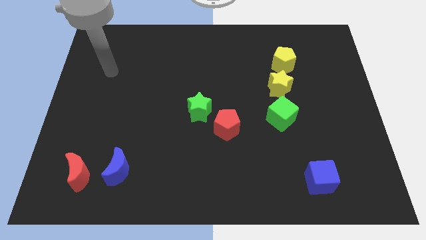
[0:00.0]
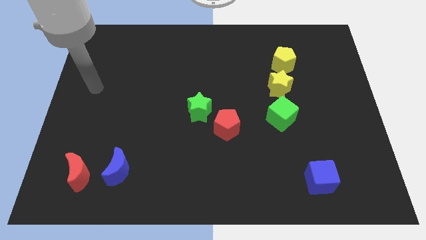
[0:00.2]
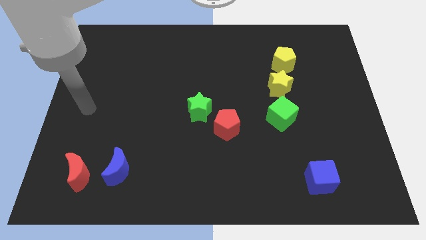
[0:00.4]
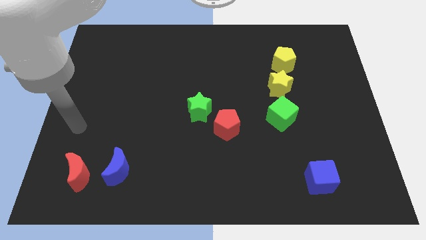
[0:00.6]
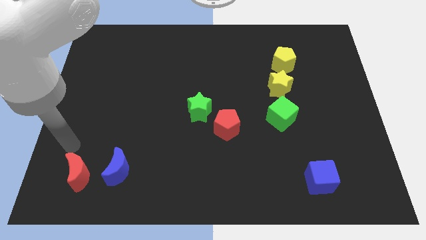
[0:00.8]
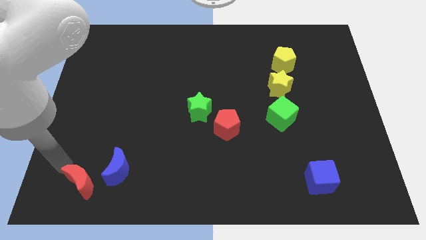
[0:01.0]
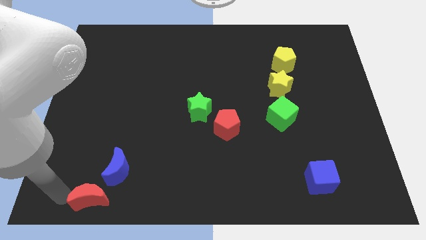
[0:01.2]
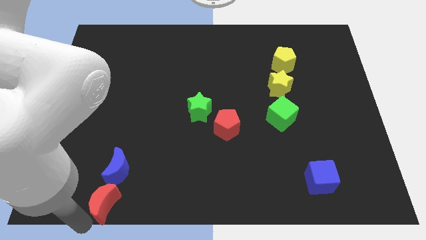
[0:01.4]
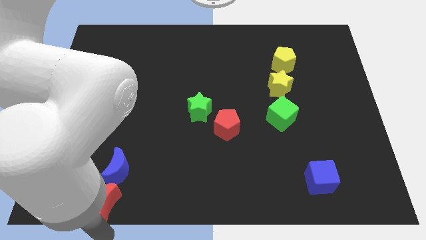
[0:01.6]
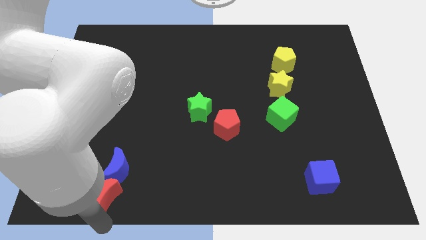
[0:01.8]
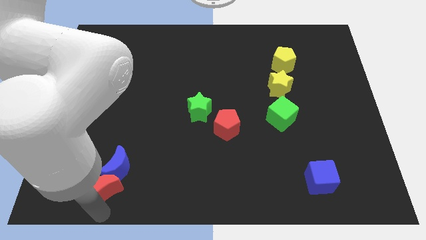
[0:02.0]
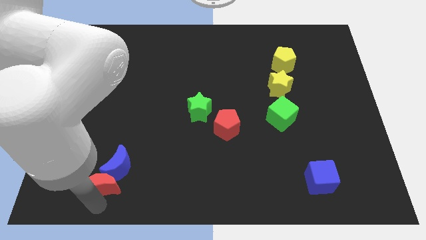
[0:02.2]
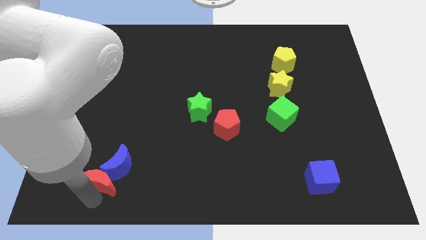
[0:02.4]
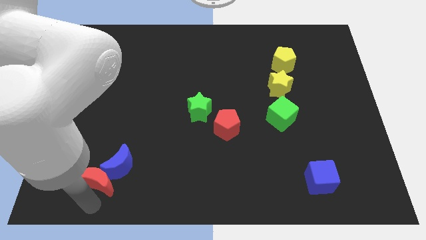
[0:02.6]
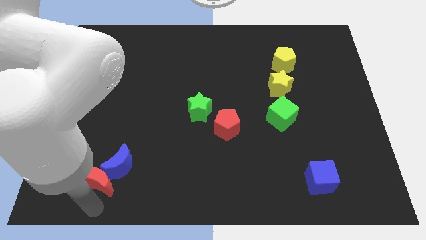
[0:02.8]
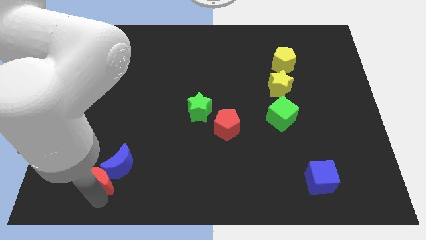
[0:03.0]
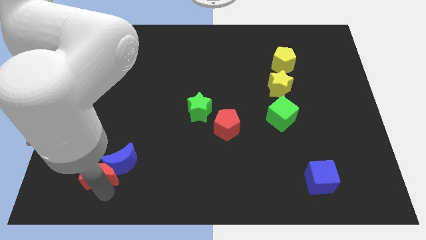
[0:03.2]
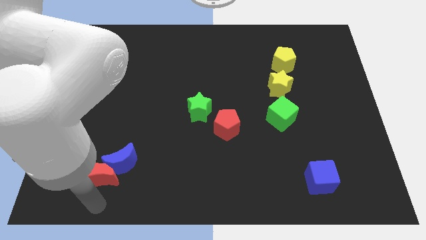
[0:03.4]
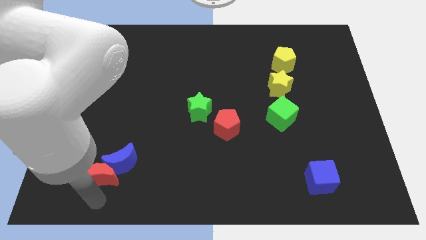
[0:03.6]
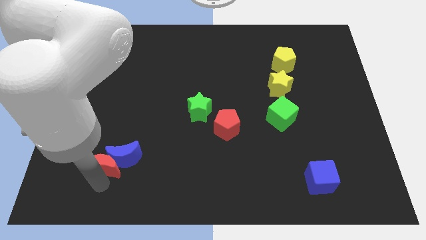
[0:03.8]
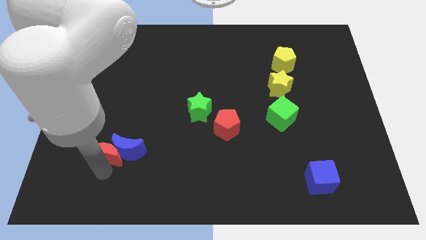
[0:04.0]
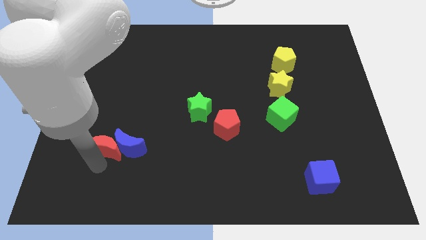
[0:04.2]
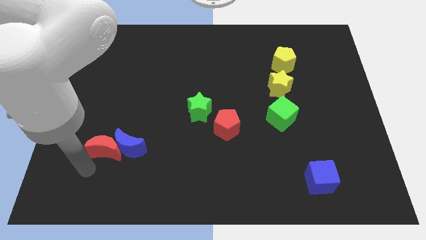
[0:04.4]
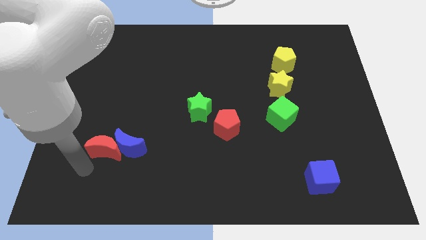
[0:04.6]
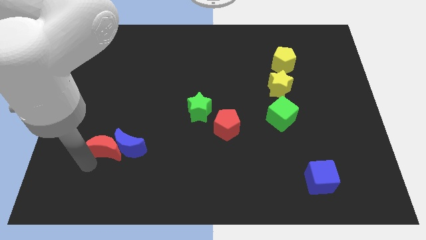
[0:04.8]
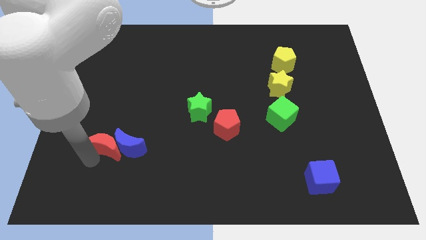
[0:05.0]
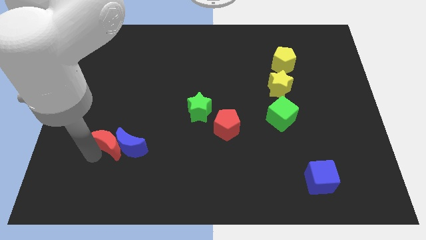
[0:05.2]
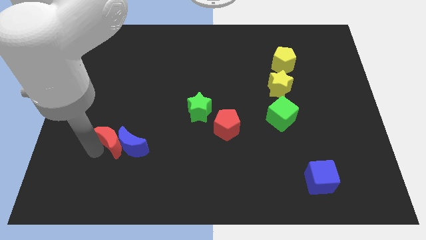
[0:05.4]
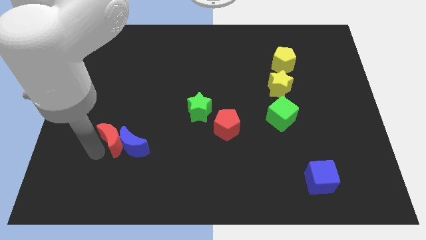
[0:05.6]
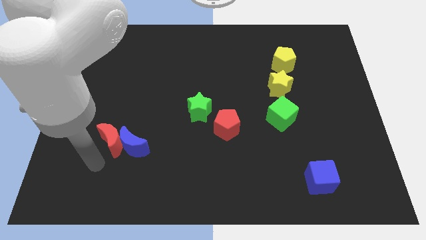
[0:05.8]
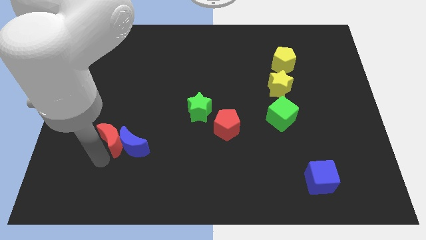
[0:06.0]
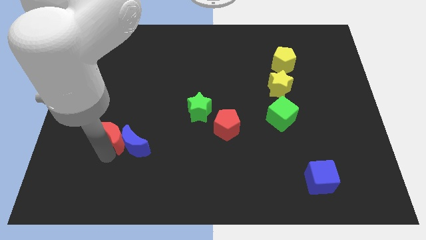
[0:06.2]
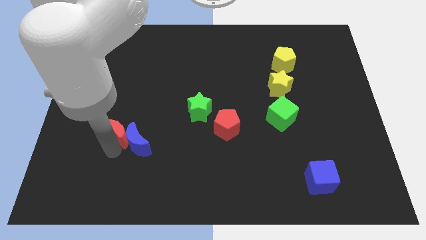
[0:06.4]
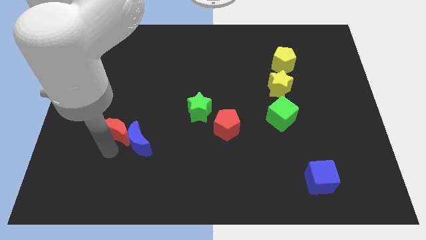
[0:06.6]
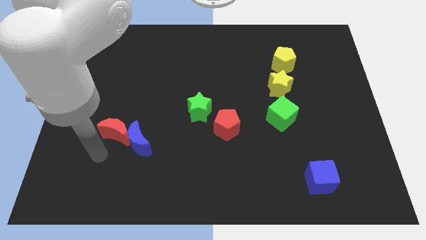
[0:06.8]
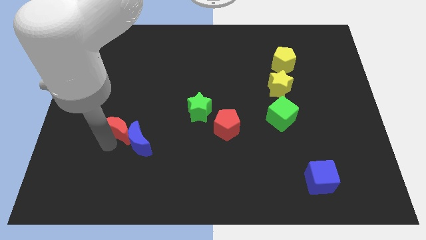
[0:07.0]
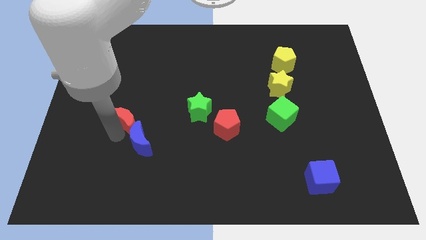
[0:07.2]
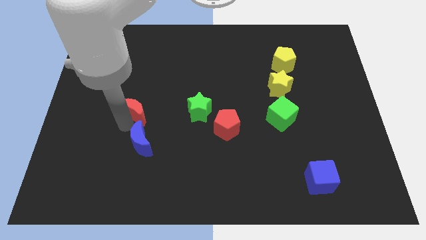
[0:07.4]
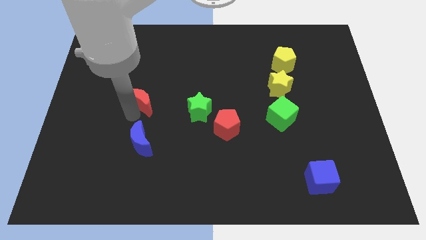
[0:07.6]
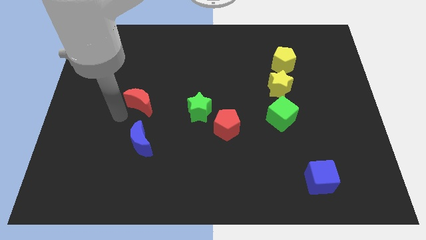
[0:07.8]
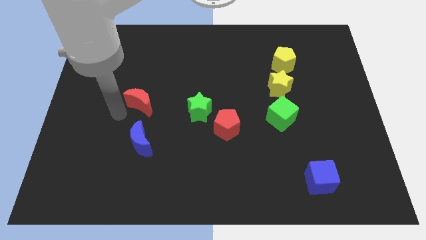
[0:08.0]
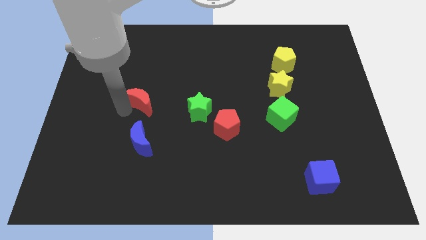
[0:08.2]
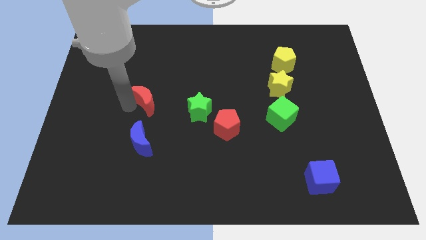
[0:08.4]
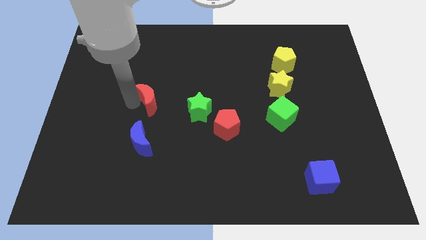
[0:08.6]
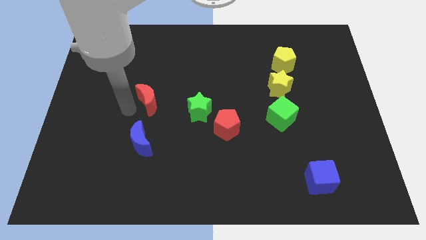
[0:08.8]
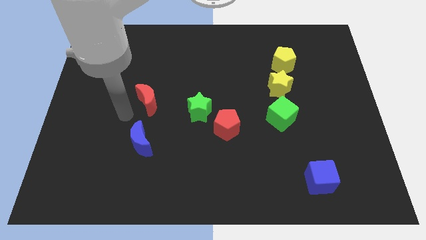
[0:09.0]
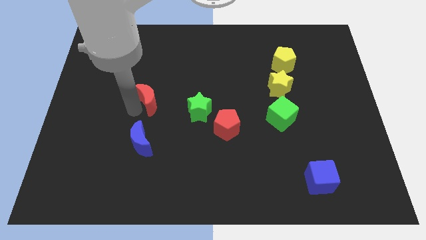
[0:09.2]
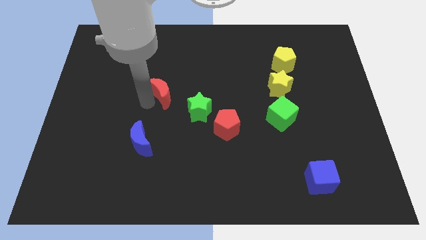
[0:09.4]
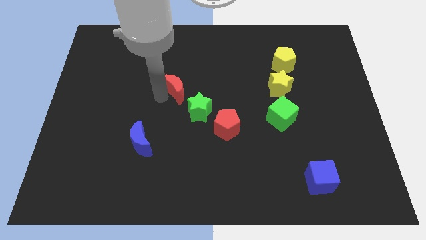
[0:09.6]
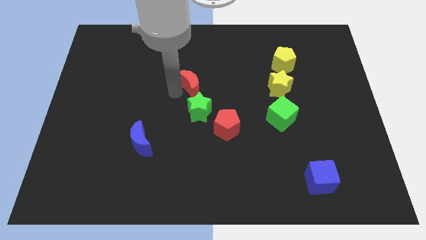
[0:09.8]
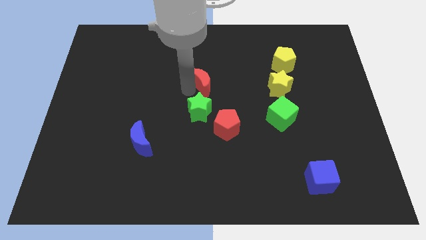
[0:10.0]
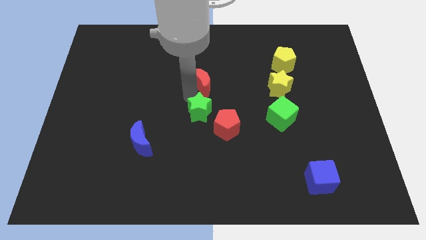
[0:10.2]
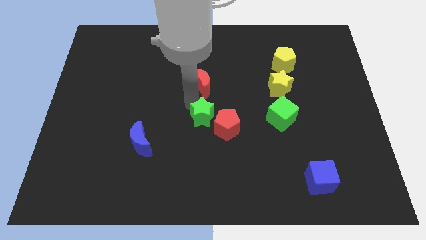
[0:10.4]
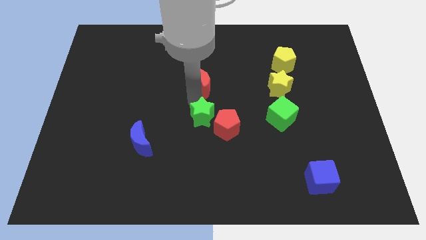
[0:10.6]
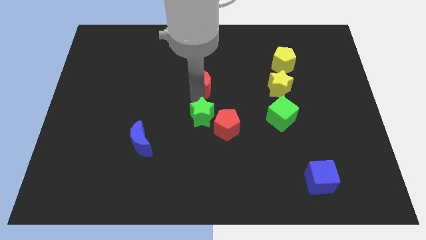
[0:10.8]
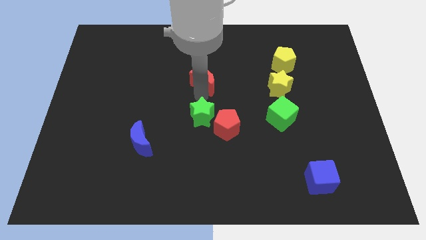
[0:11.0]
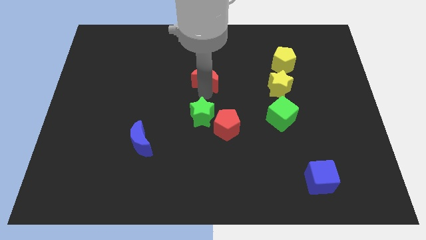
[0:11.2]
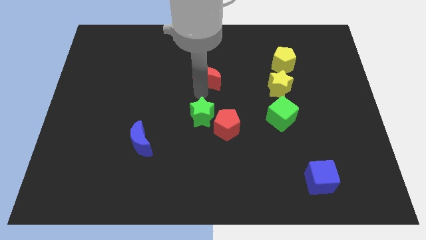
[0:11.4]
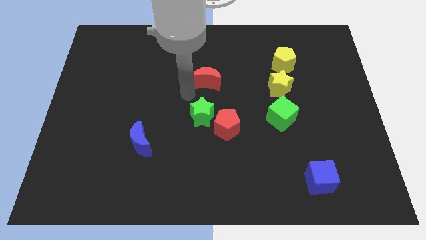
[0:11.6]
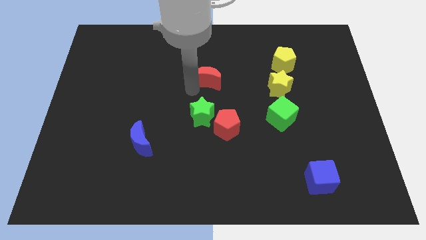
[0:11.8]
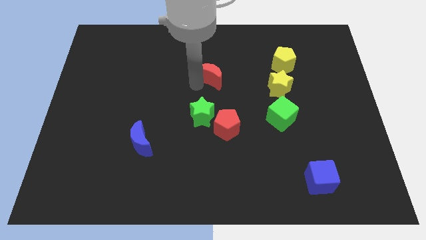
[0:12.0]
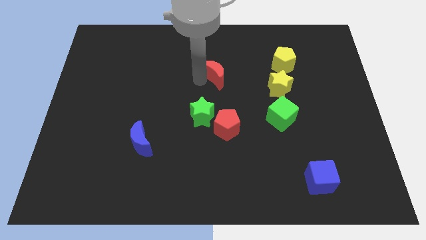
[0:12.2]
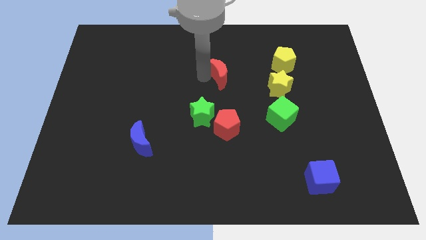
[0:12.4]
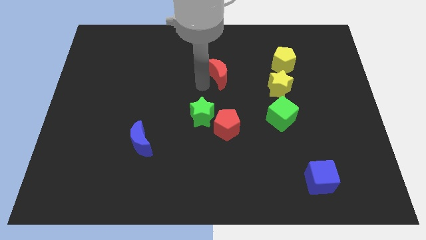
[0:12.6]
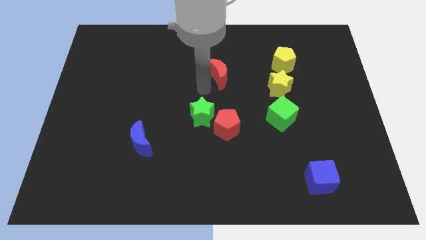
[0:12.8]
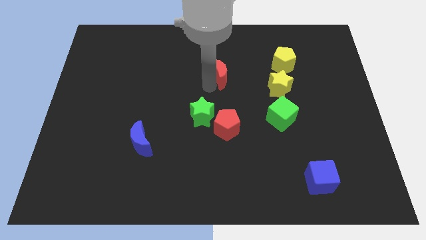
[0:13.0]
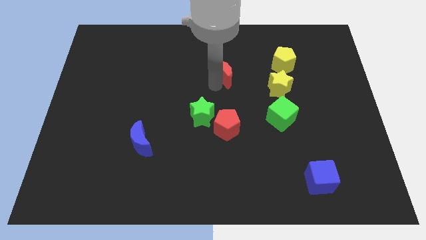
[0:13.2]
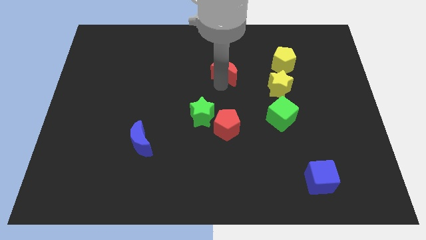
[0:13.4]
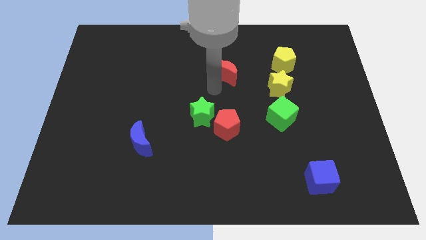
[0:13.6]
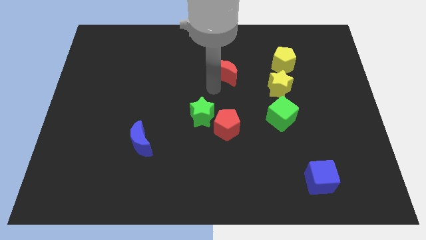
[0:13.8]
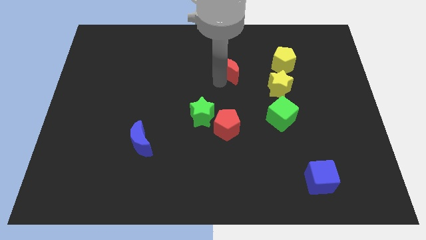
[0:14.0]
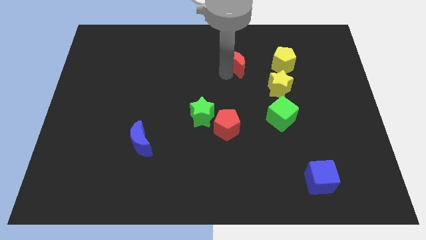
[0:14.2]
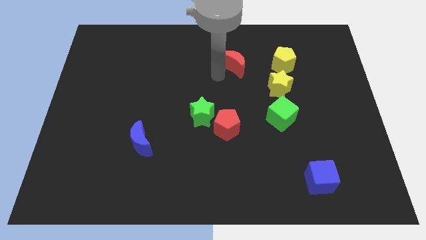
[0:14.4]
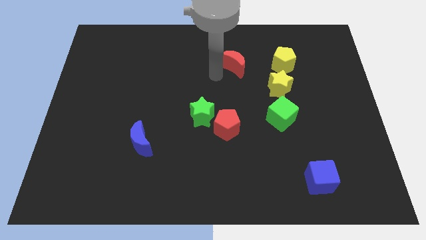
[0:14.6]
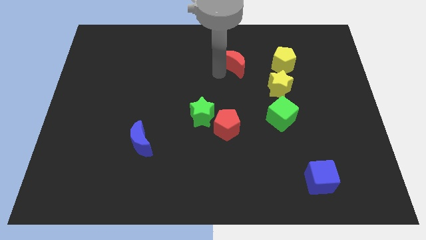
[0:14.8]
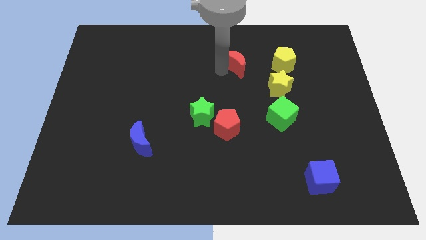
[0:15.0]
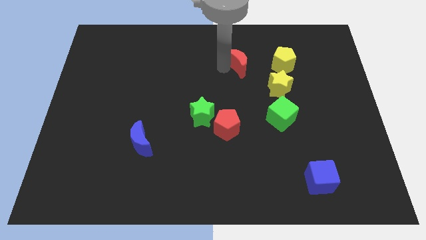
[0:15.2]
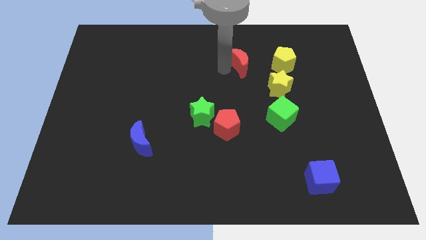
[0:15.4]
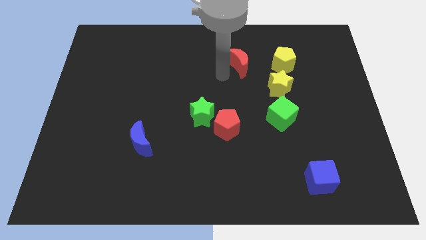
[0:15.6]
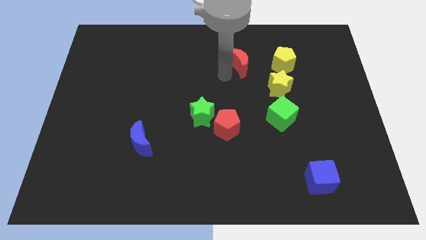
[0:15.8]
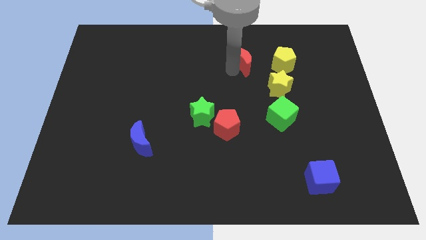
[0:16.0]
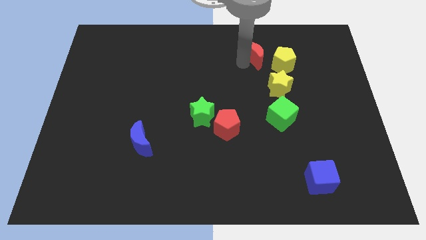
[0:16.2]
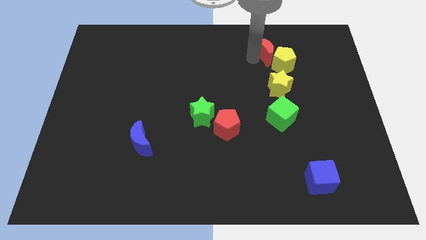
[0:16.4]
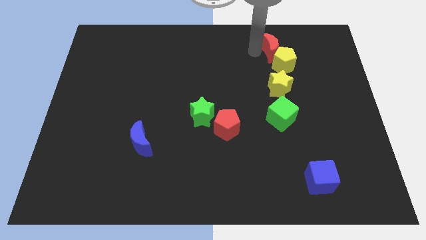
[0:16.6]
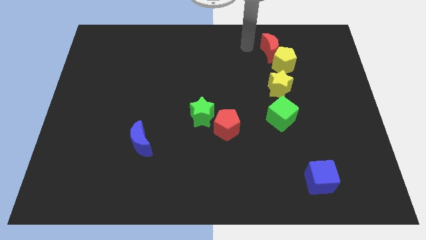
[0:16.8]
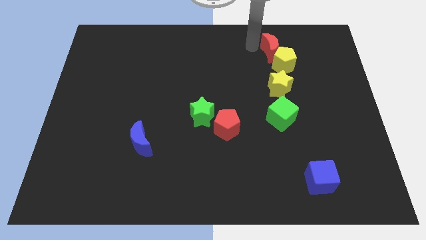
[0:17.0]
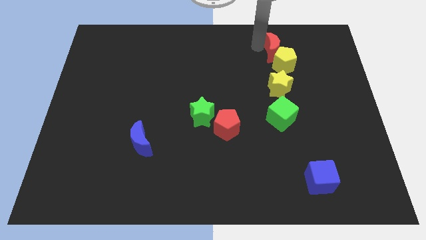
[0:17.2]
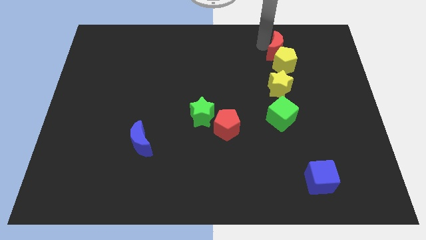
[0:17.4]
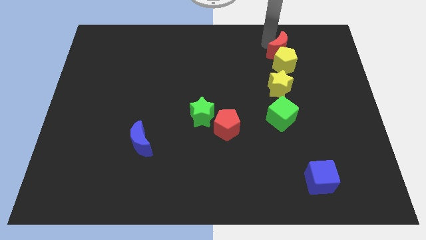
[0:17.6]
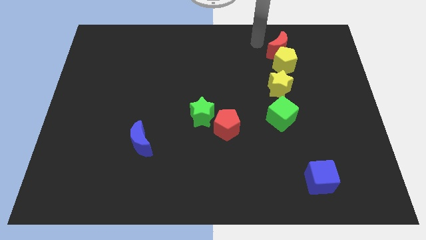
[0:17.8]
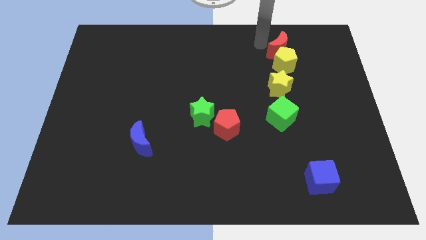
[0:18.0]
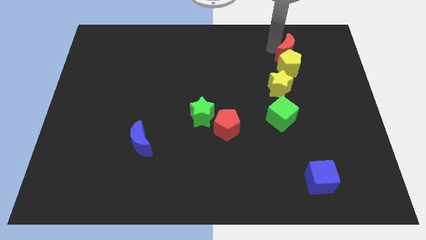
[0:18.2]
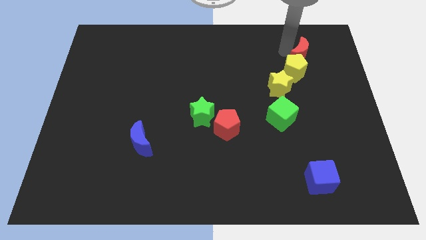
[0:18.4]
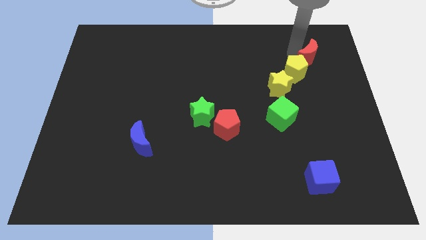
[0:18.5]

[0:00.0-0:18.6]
push the red moon to the right of the yellow pentagon
